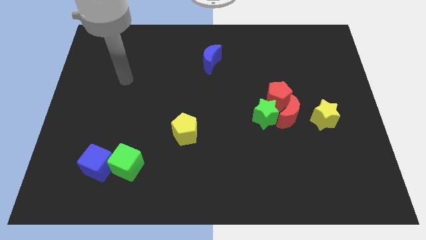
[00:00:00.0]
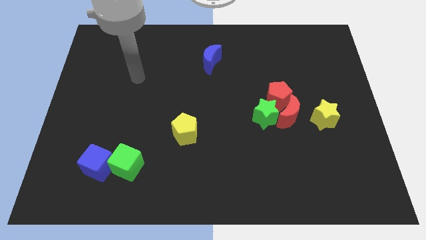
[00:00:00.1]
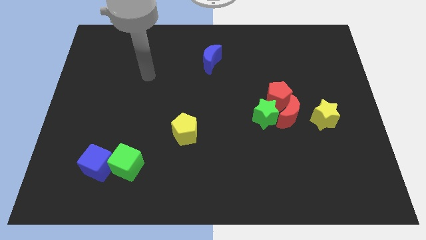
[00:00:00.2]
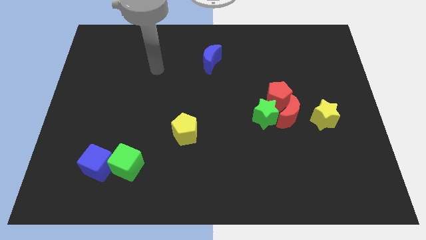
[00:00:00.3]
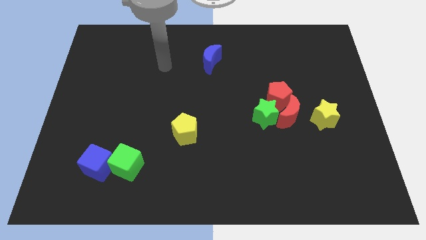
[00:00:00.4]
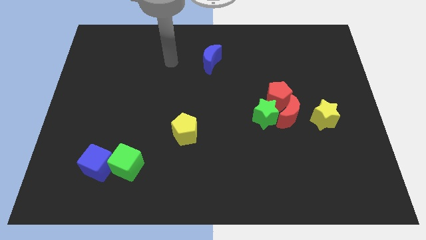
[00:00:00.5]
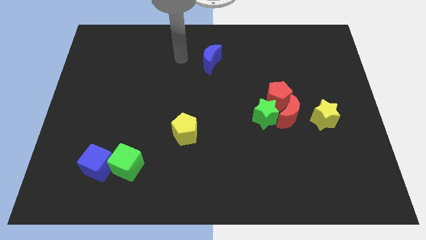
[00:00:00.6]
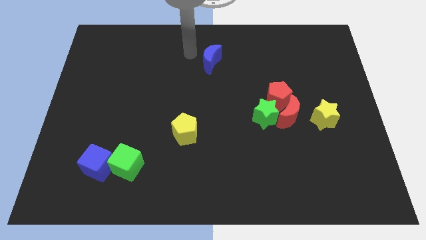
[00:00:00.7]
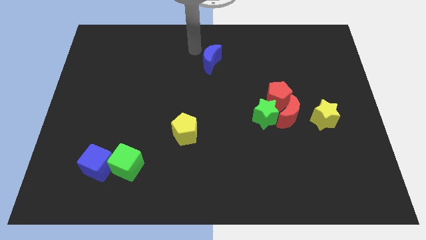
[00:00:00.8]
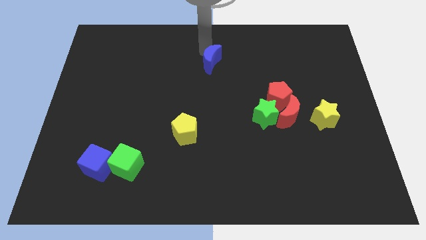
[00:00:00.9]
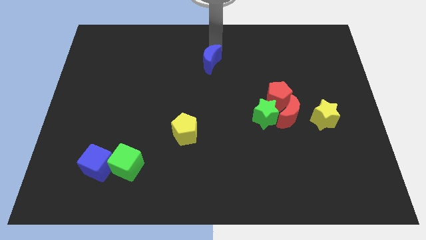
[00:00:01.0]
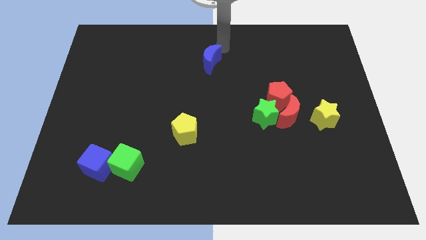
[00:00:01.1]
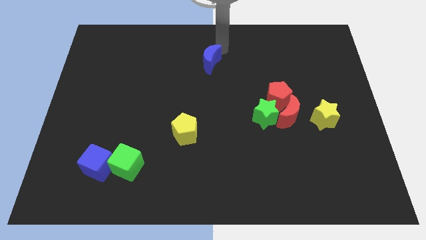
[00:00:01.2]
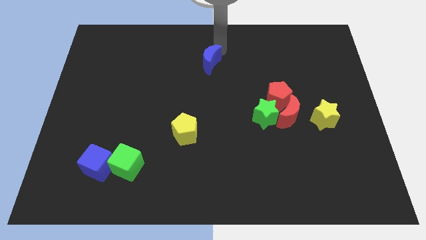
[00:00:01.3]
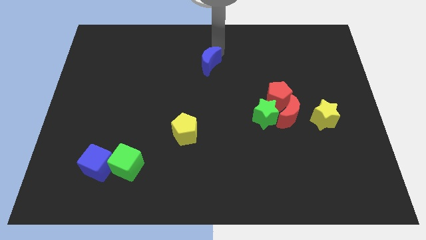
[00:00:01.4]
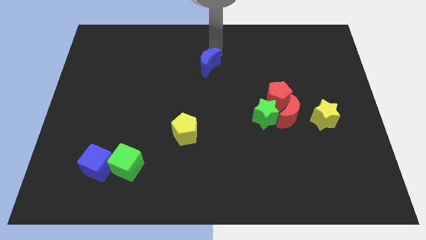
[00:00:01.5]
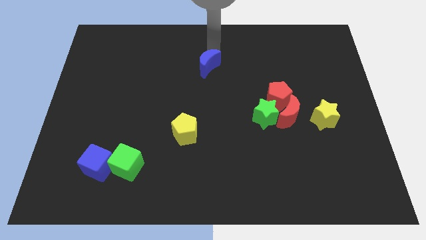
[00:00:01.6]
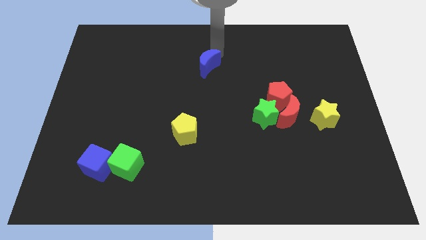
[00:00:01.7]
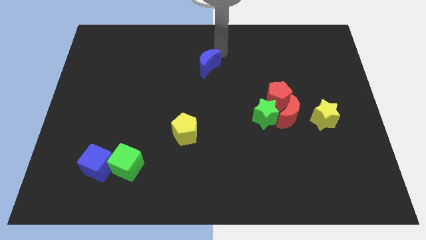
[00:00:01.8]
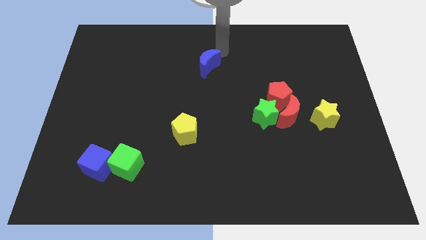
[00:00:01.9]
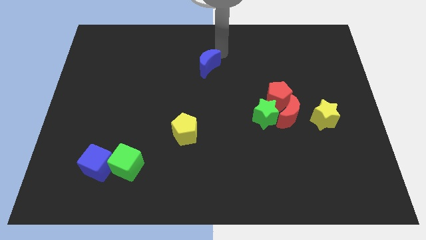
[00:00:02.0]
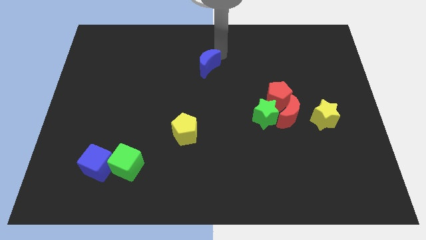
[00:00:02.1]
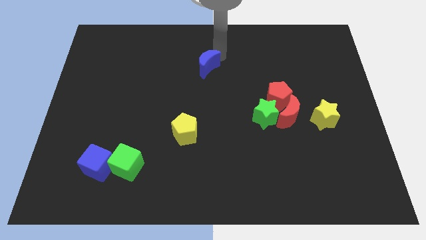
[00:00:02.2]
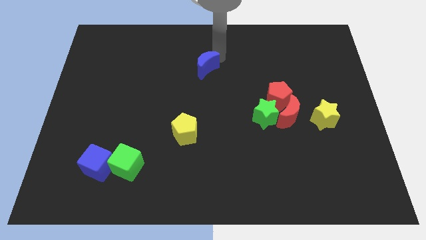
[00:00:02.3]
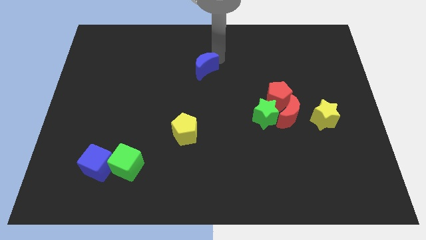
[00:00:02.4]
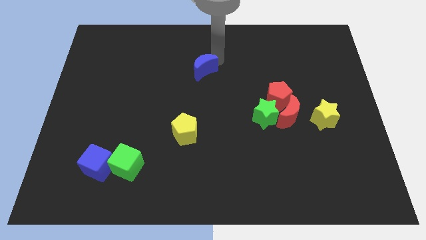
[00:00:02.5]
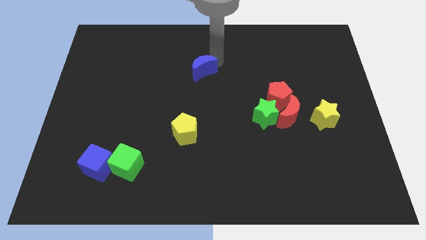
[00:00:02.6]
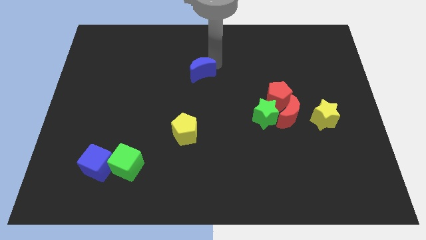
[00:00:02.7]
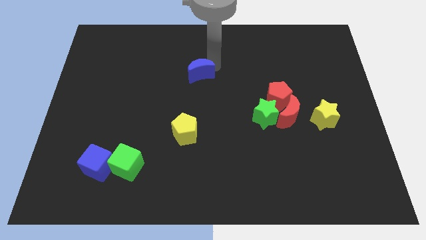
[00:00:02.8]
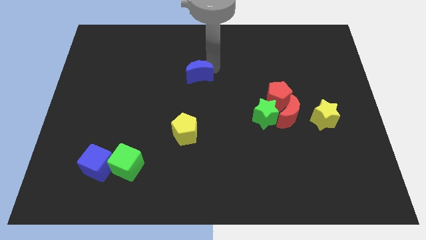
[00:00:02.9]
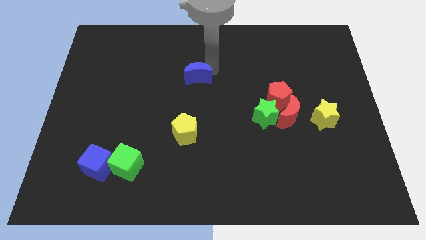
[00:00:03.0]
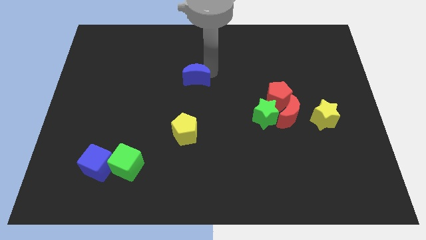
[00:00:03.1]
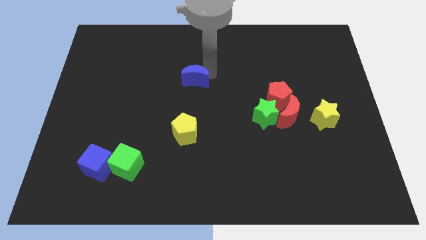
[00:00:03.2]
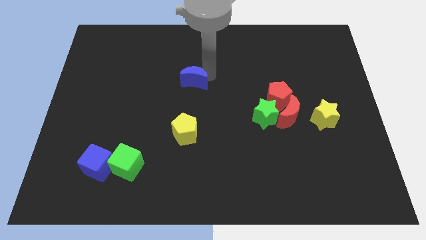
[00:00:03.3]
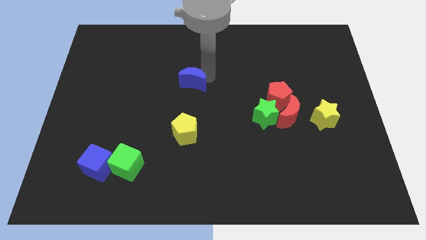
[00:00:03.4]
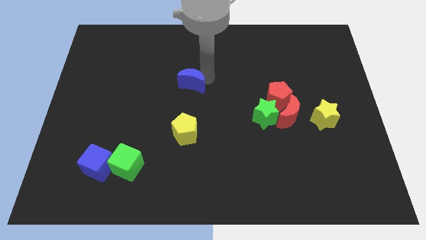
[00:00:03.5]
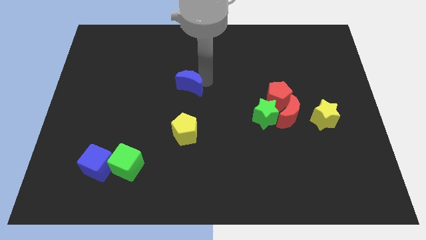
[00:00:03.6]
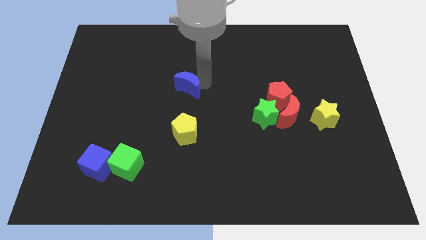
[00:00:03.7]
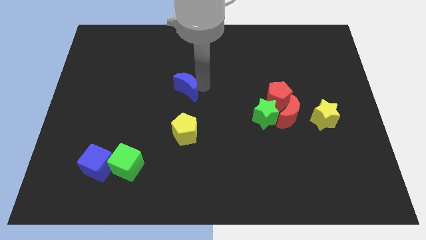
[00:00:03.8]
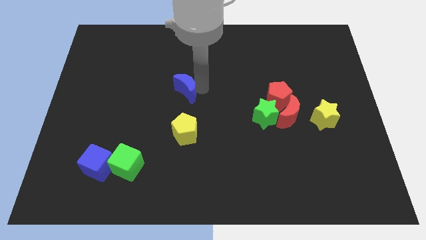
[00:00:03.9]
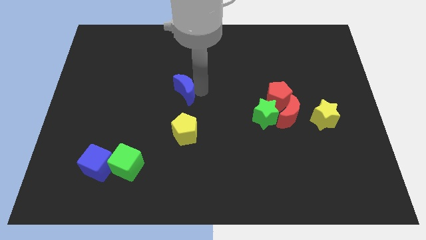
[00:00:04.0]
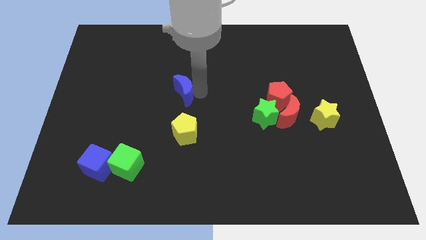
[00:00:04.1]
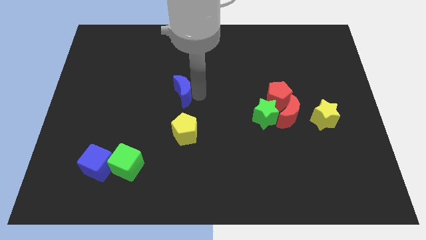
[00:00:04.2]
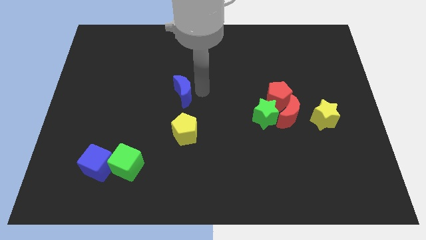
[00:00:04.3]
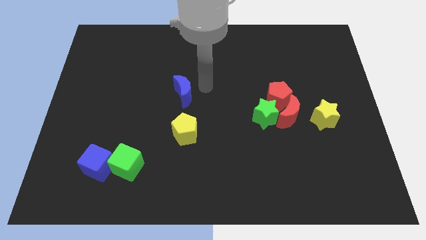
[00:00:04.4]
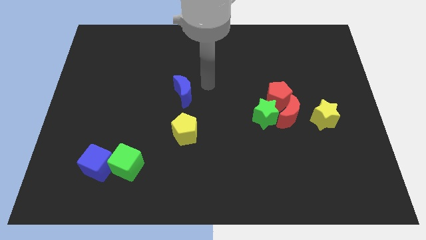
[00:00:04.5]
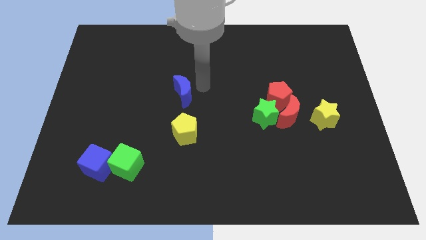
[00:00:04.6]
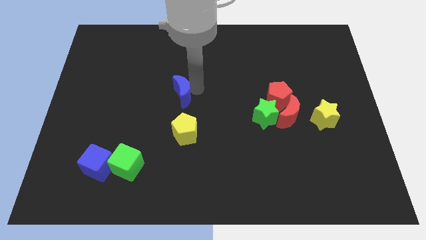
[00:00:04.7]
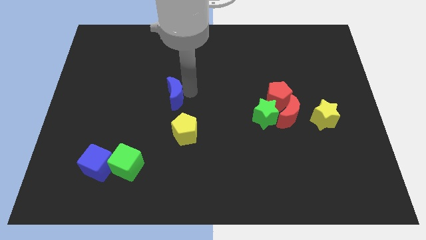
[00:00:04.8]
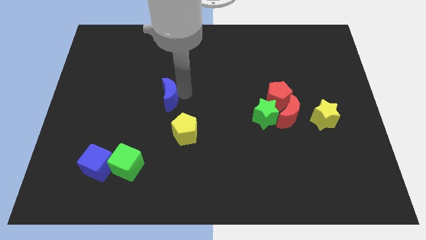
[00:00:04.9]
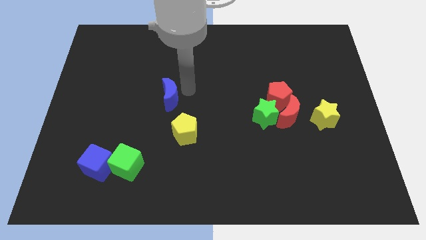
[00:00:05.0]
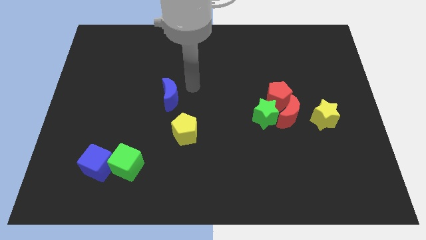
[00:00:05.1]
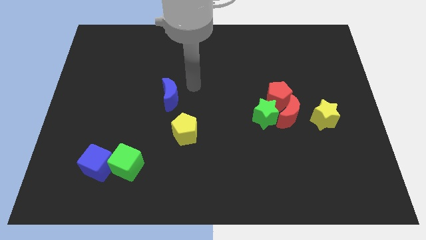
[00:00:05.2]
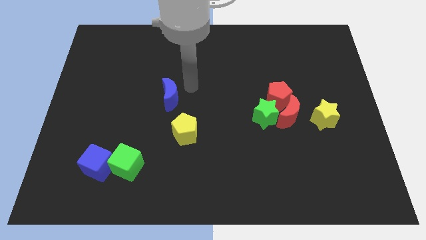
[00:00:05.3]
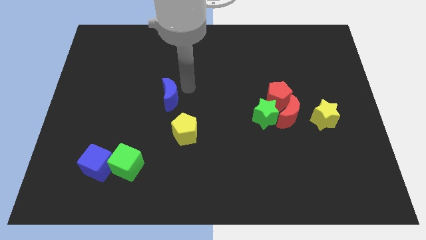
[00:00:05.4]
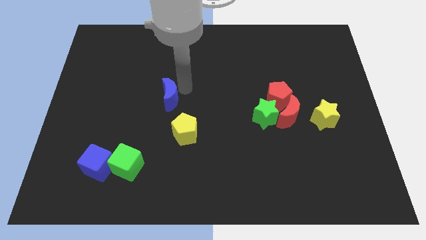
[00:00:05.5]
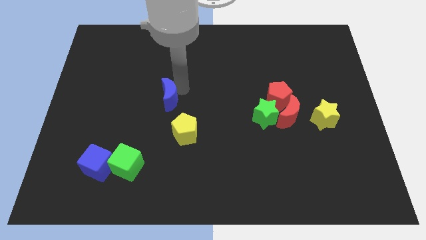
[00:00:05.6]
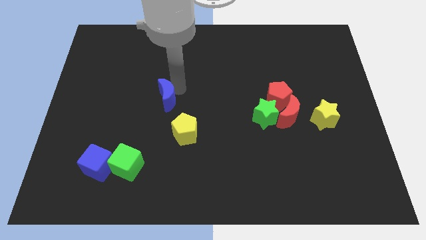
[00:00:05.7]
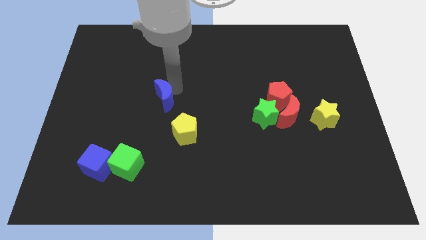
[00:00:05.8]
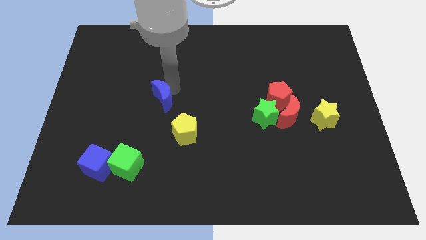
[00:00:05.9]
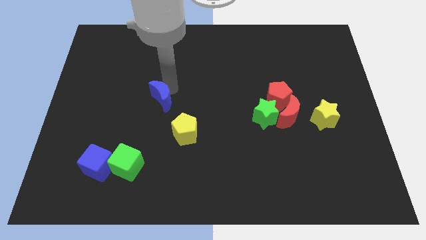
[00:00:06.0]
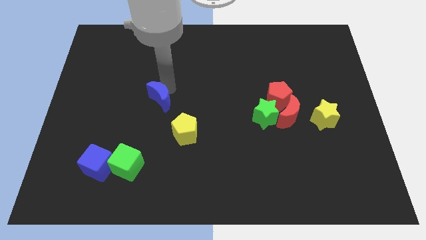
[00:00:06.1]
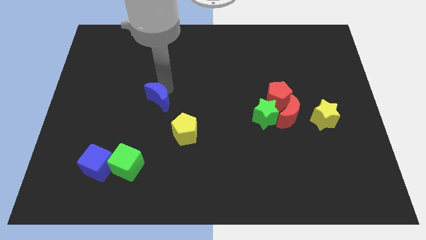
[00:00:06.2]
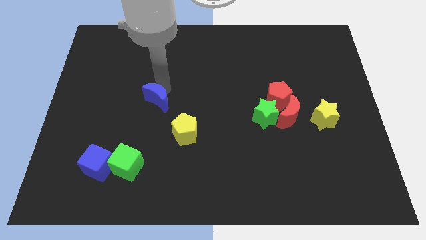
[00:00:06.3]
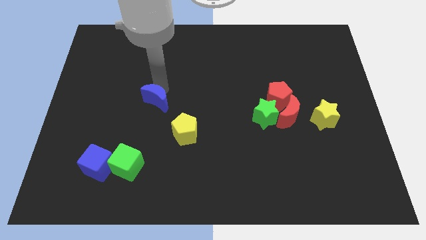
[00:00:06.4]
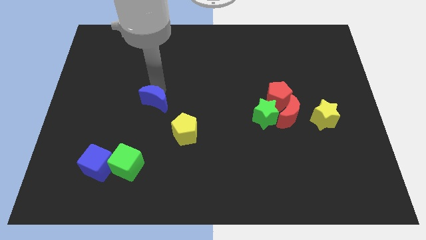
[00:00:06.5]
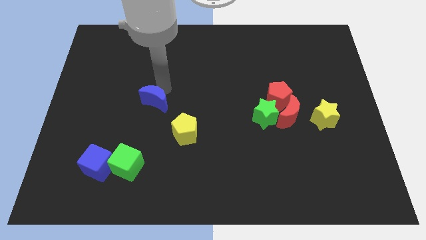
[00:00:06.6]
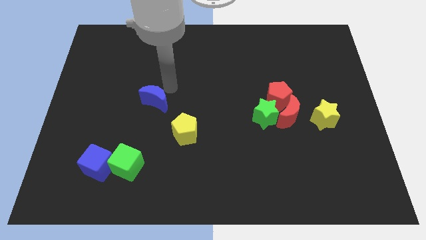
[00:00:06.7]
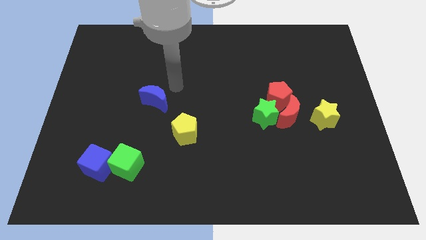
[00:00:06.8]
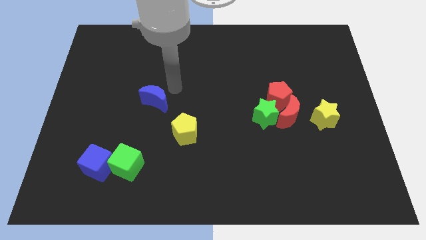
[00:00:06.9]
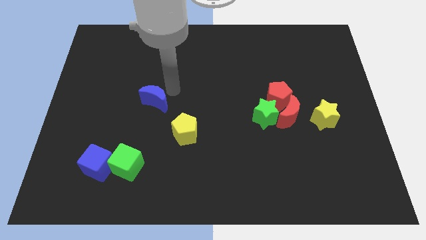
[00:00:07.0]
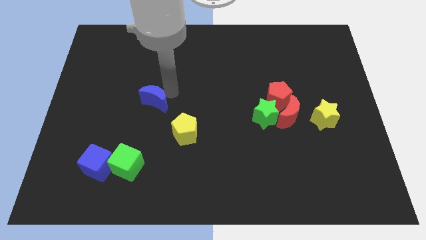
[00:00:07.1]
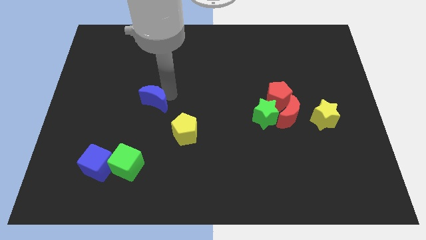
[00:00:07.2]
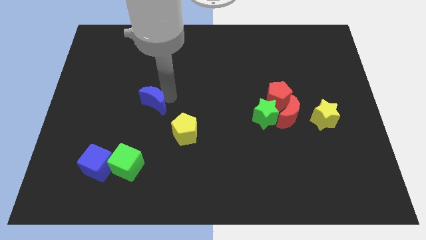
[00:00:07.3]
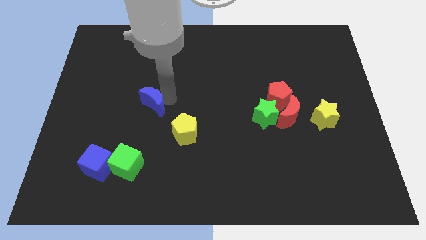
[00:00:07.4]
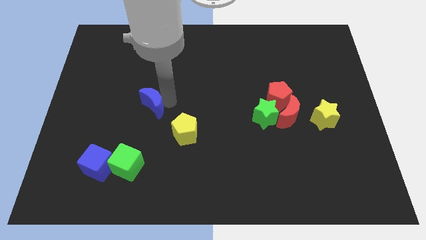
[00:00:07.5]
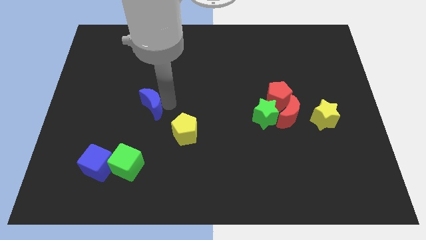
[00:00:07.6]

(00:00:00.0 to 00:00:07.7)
slide the blue moon downwards and left
